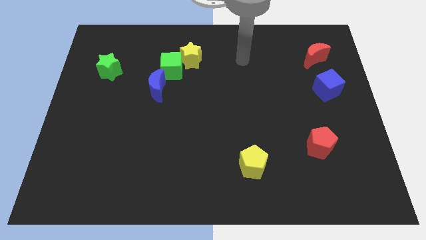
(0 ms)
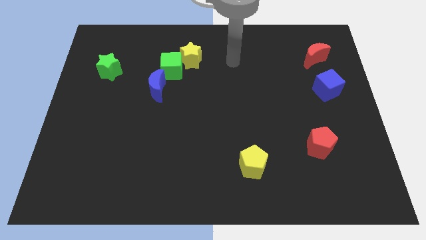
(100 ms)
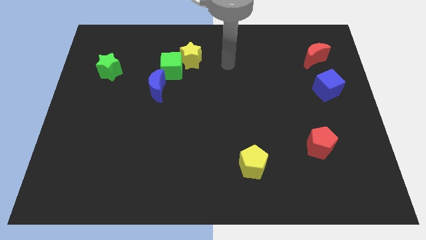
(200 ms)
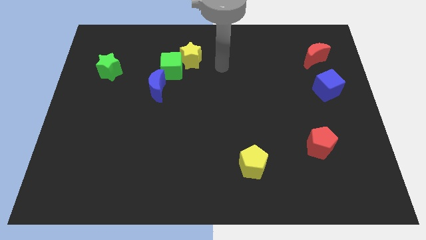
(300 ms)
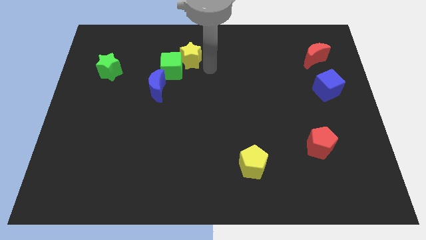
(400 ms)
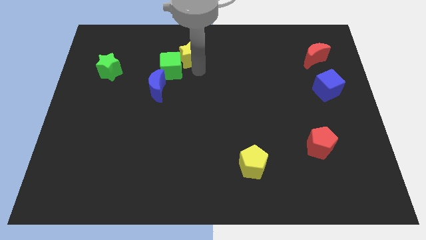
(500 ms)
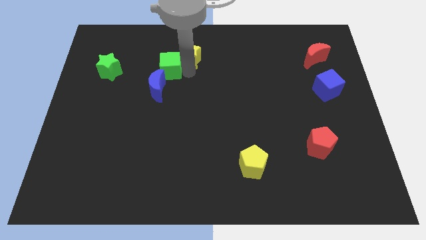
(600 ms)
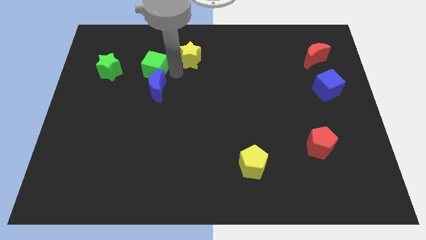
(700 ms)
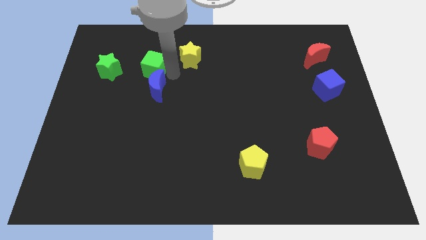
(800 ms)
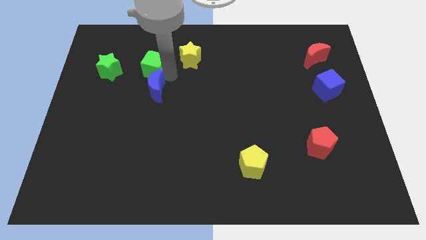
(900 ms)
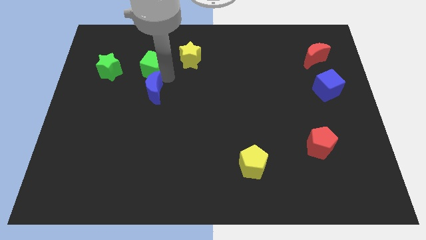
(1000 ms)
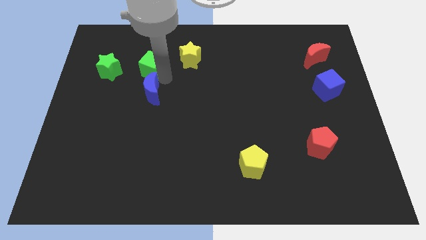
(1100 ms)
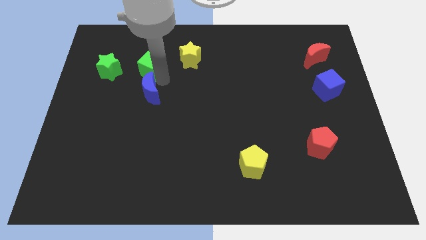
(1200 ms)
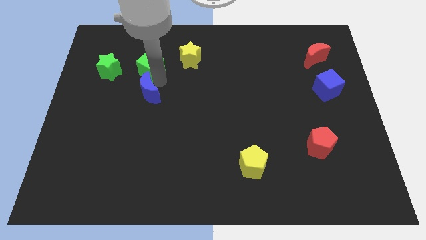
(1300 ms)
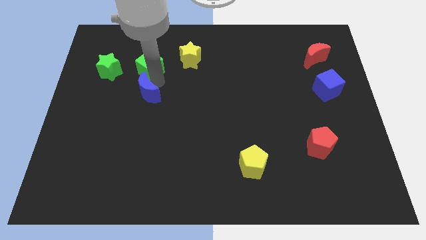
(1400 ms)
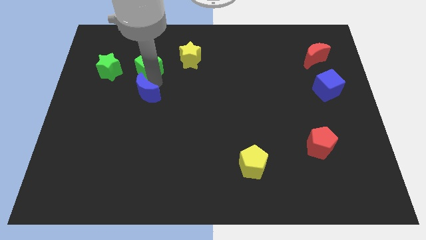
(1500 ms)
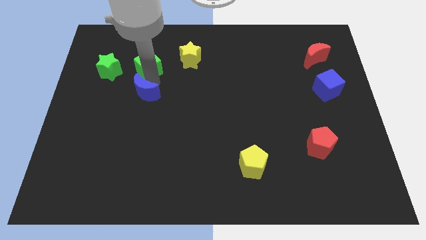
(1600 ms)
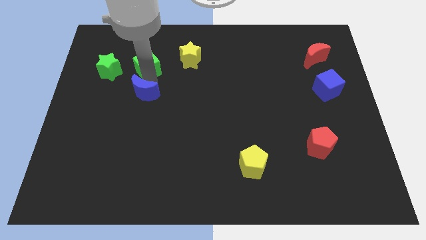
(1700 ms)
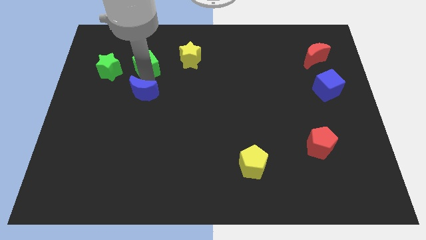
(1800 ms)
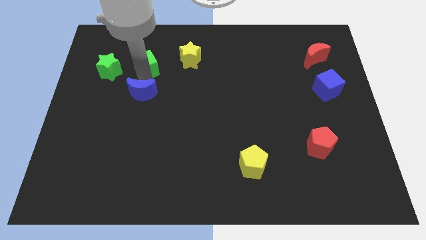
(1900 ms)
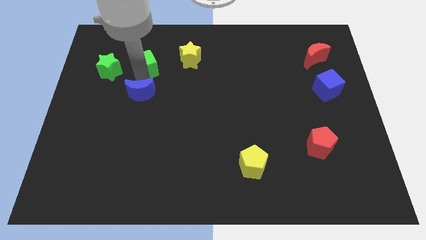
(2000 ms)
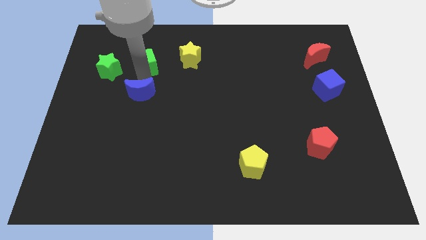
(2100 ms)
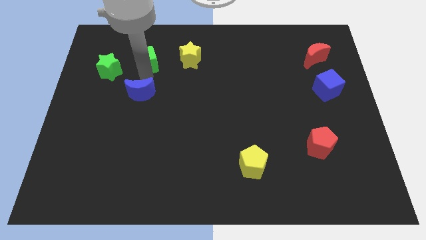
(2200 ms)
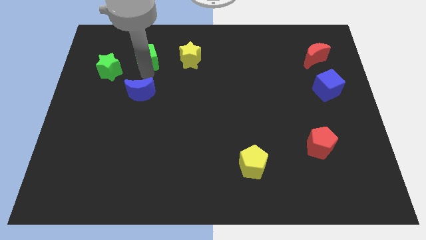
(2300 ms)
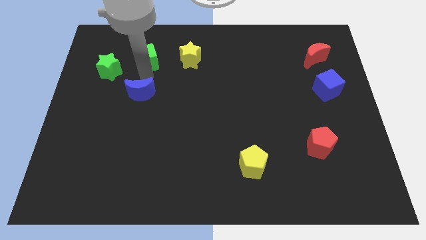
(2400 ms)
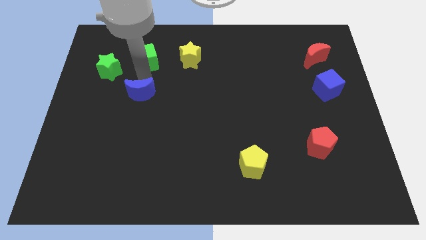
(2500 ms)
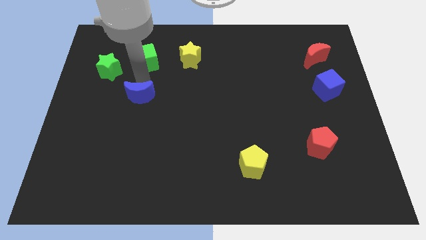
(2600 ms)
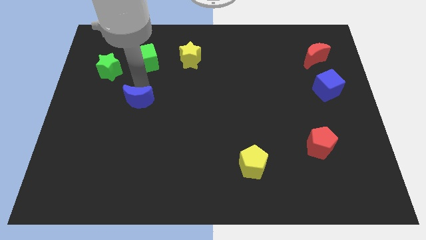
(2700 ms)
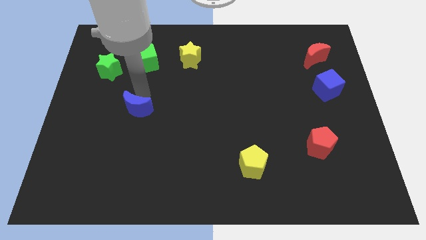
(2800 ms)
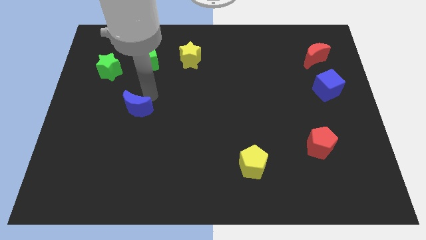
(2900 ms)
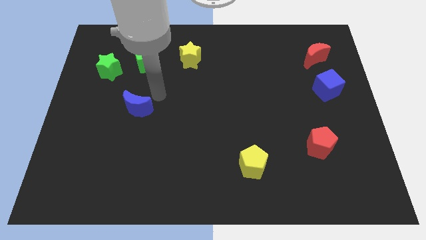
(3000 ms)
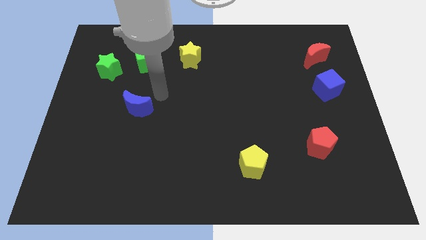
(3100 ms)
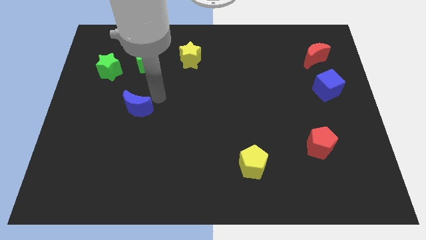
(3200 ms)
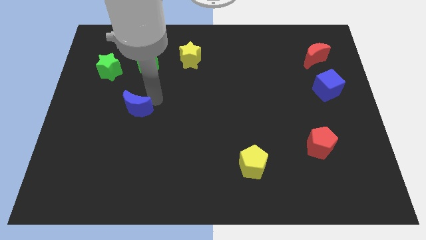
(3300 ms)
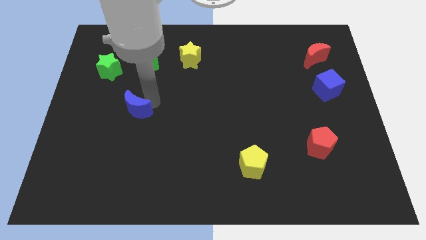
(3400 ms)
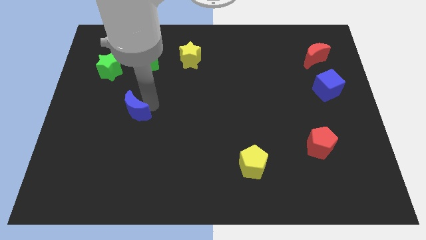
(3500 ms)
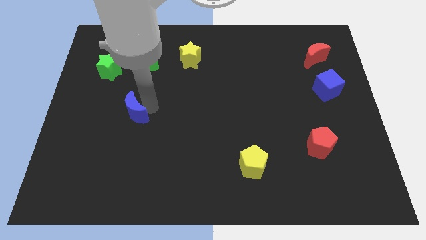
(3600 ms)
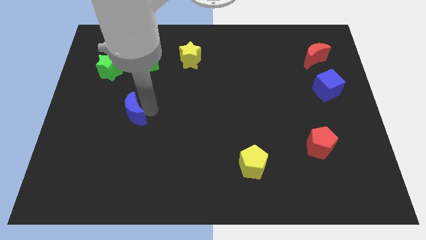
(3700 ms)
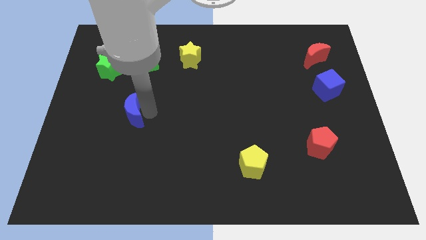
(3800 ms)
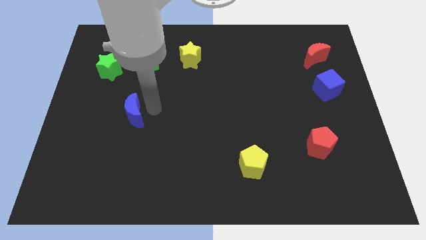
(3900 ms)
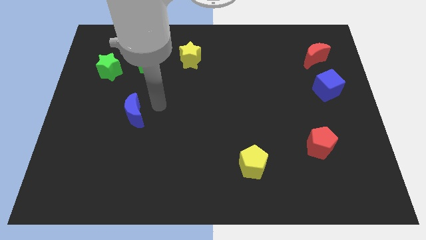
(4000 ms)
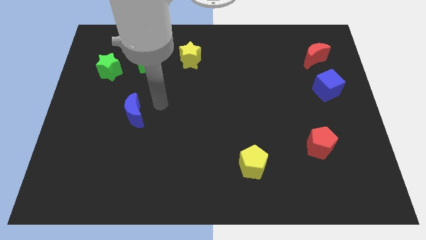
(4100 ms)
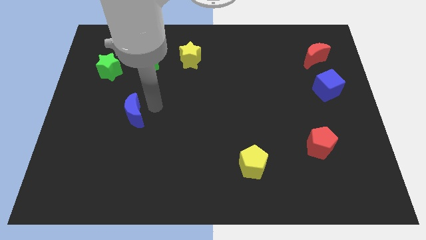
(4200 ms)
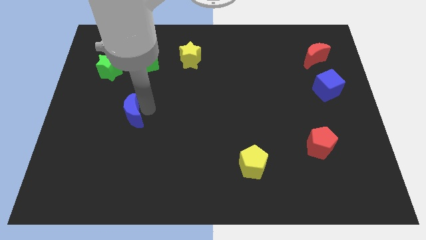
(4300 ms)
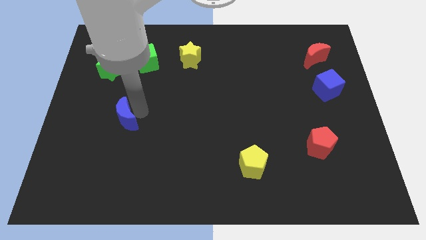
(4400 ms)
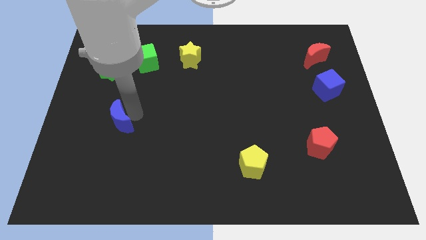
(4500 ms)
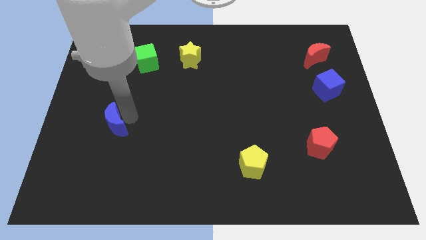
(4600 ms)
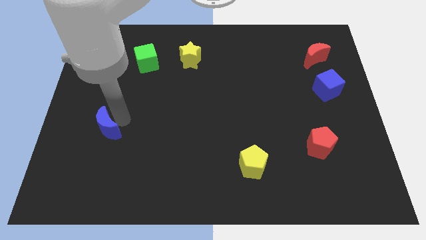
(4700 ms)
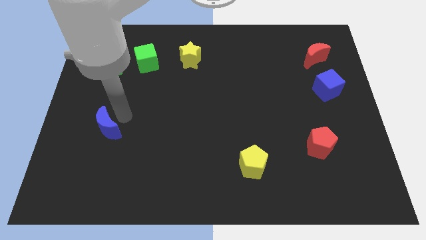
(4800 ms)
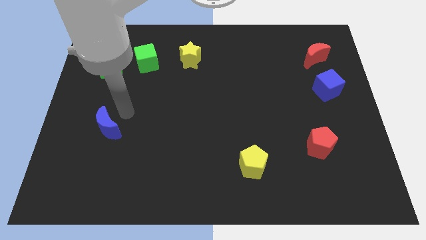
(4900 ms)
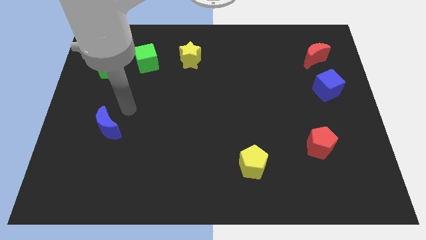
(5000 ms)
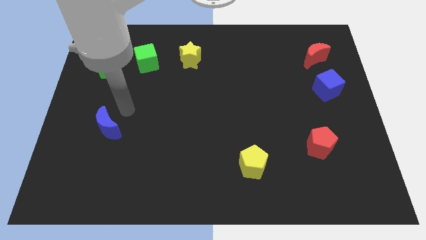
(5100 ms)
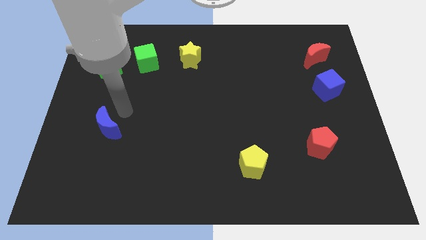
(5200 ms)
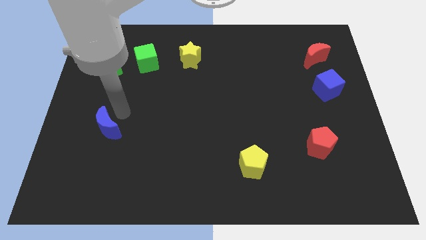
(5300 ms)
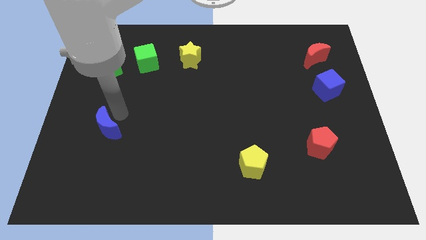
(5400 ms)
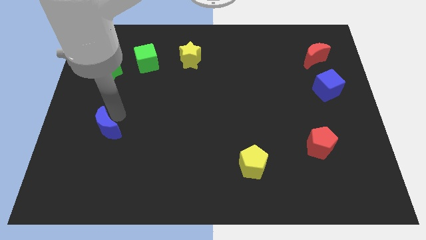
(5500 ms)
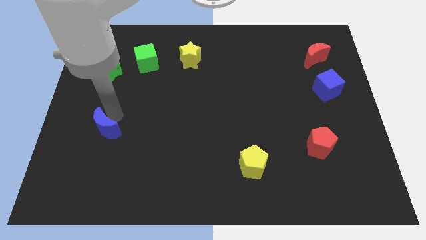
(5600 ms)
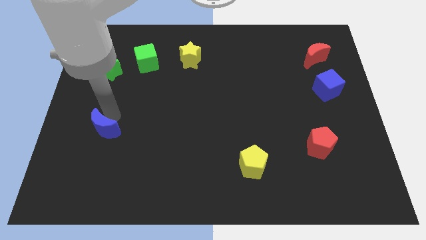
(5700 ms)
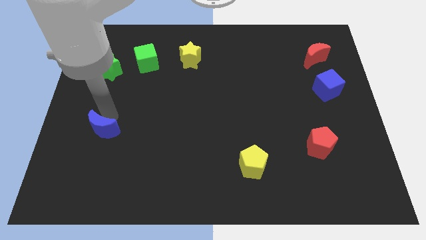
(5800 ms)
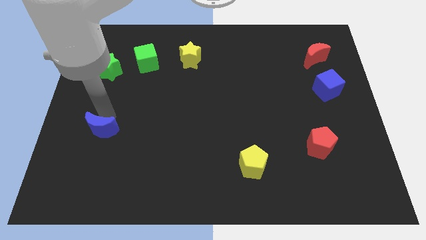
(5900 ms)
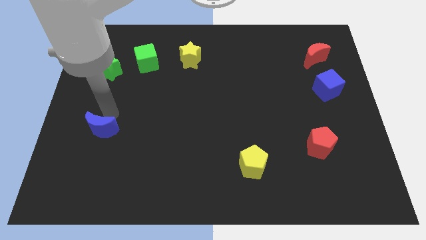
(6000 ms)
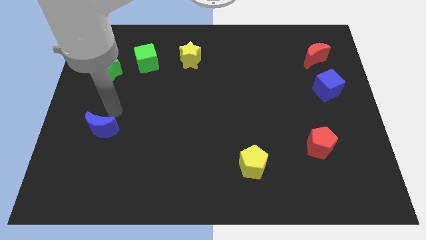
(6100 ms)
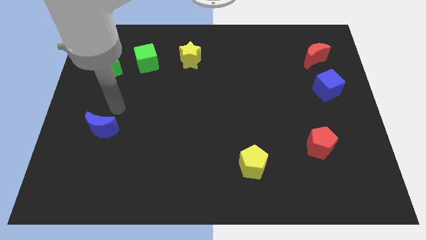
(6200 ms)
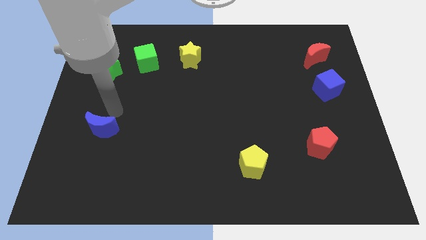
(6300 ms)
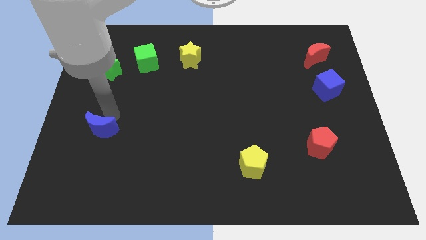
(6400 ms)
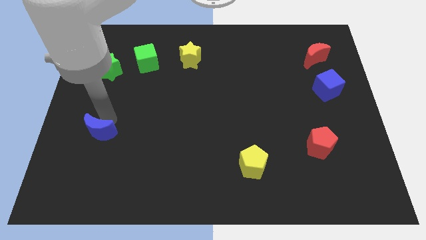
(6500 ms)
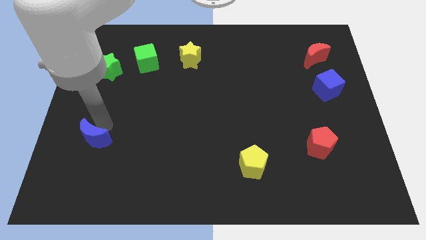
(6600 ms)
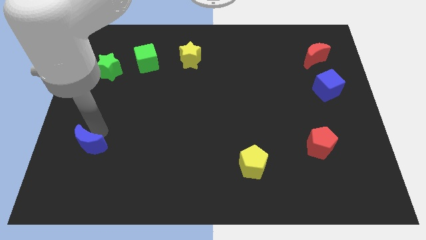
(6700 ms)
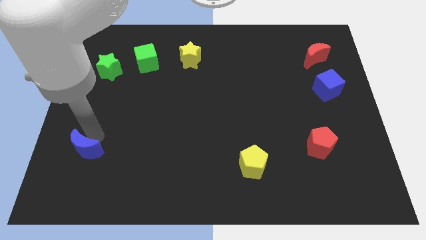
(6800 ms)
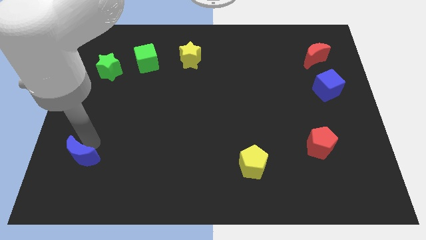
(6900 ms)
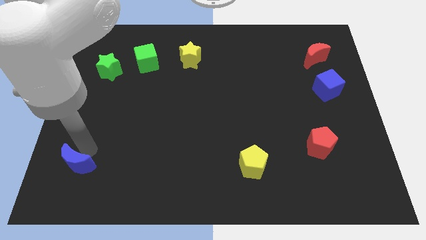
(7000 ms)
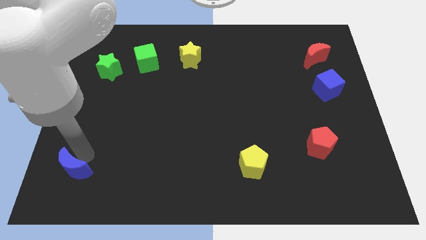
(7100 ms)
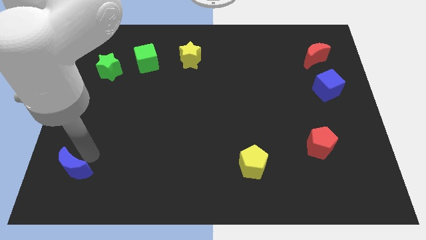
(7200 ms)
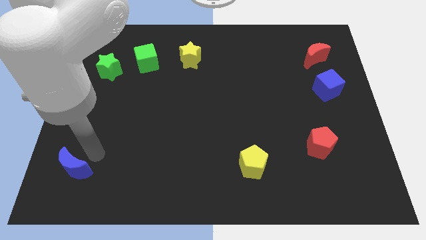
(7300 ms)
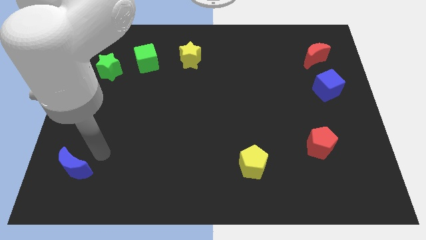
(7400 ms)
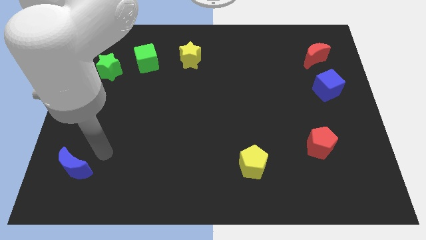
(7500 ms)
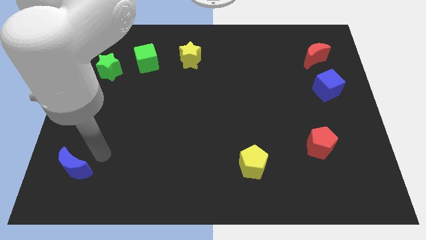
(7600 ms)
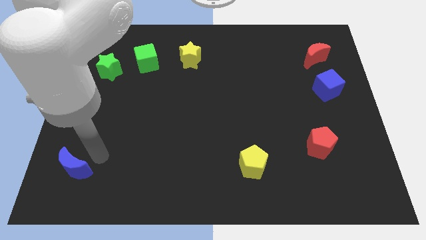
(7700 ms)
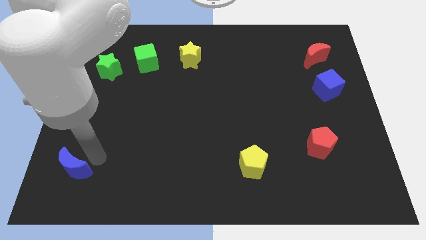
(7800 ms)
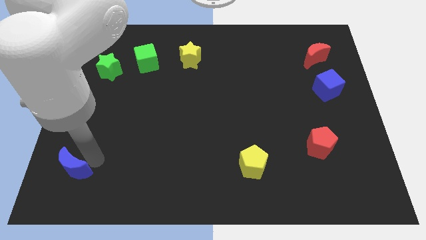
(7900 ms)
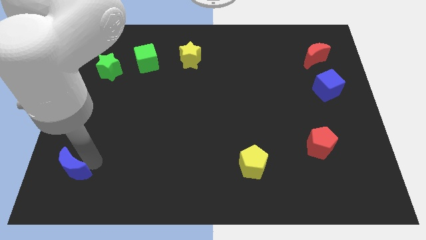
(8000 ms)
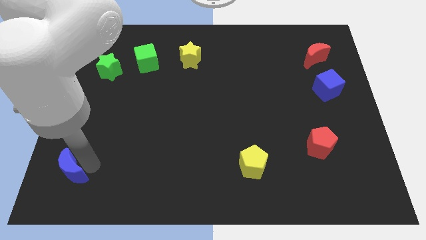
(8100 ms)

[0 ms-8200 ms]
move the blue moon to the bottom left
